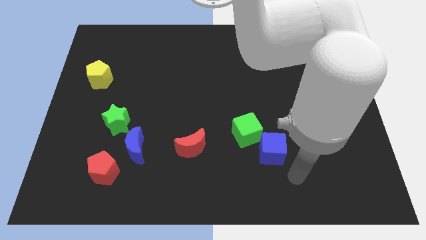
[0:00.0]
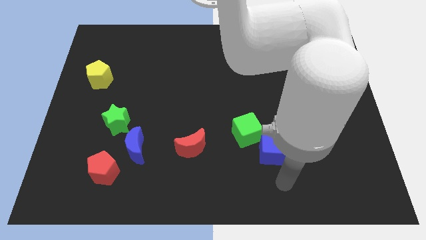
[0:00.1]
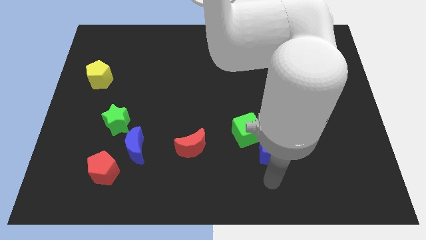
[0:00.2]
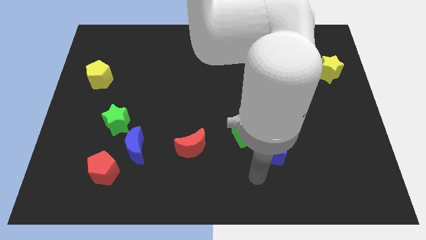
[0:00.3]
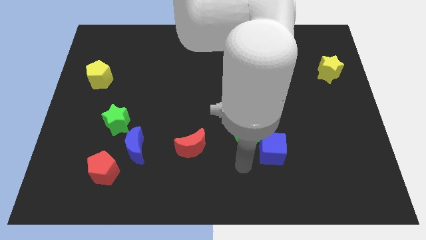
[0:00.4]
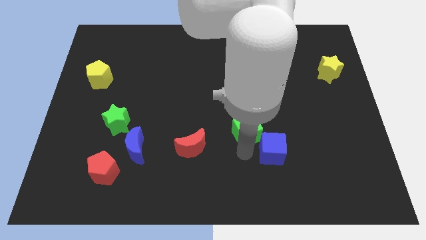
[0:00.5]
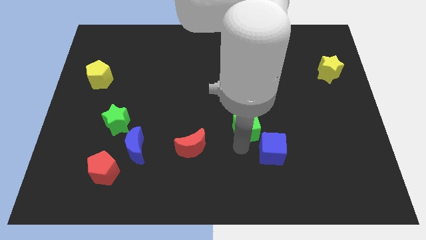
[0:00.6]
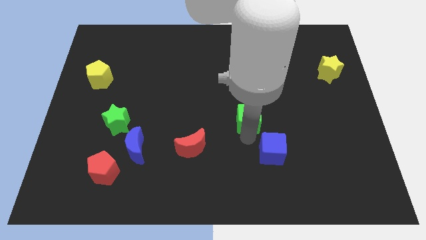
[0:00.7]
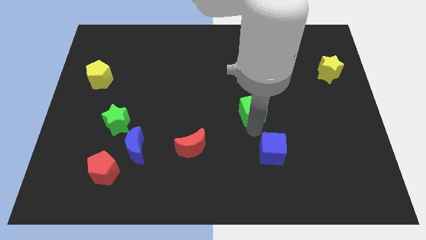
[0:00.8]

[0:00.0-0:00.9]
separate the blue cube from the green cube

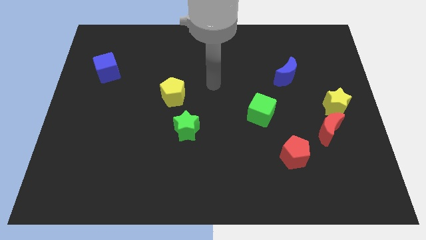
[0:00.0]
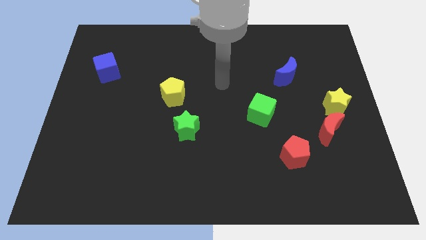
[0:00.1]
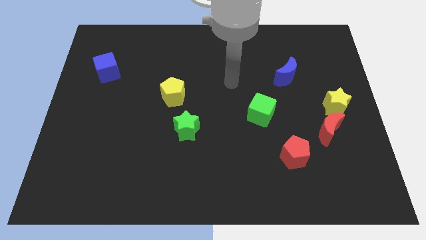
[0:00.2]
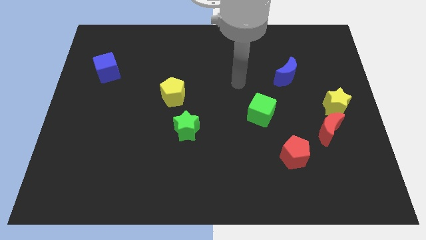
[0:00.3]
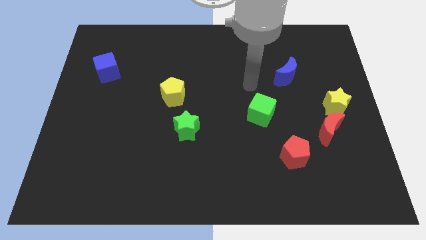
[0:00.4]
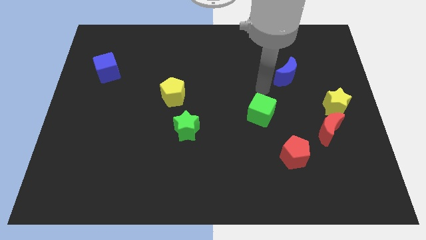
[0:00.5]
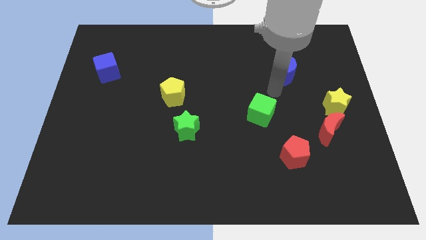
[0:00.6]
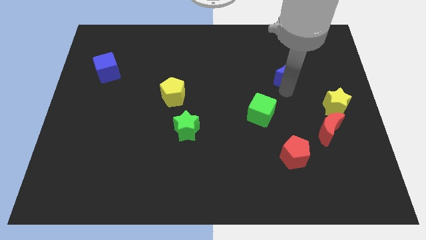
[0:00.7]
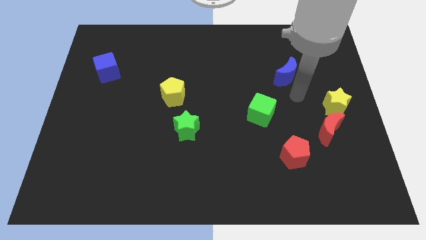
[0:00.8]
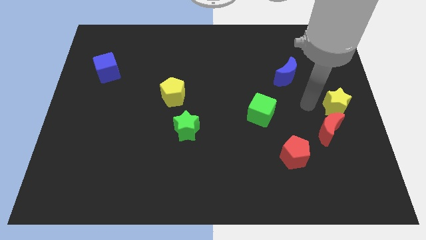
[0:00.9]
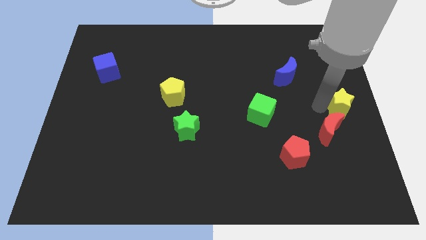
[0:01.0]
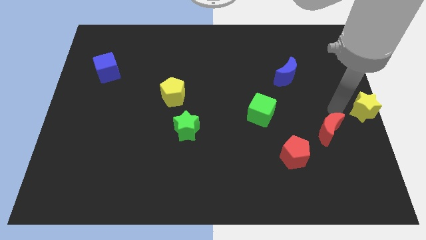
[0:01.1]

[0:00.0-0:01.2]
move the red moon away from the yellow star

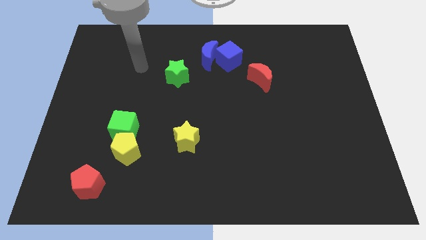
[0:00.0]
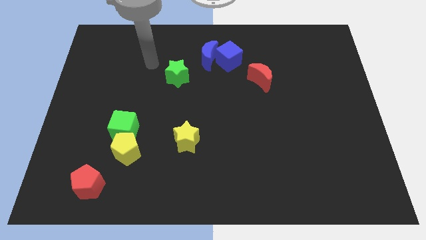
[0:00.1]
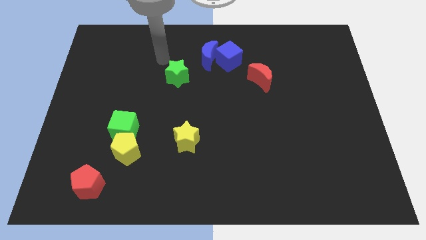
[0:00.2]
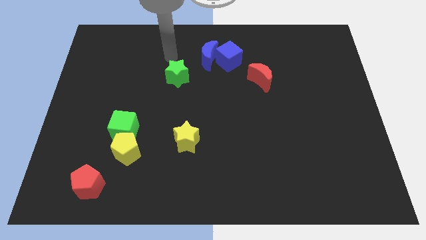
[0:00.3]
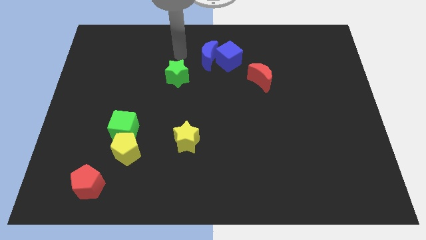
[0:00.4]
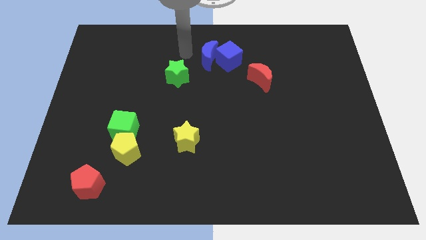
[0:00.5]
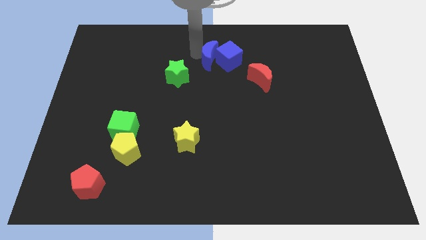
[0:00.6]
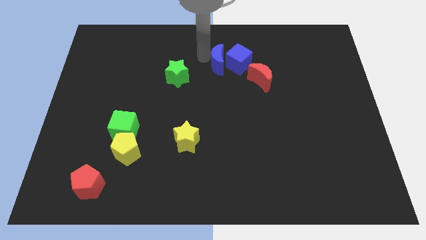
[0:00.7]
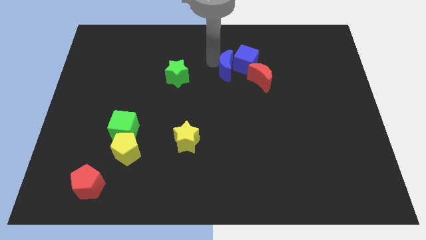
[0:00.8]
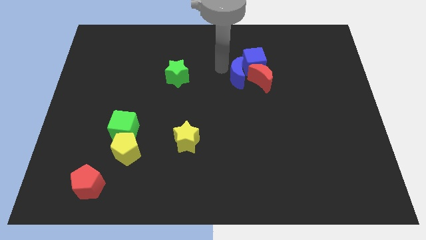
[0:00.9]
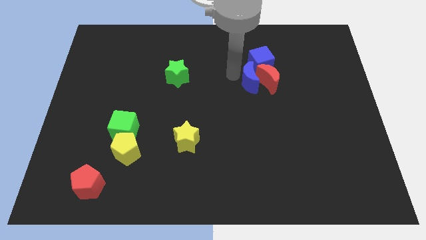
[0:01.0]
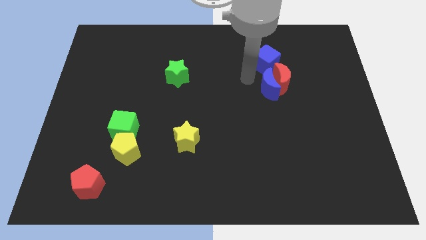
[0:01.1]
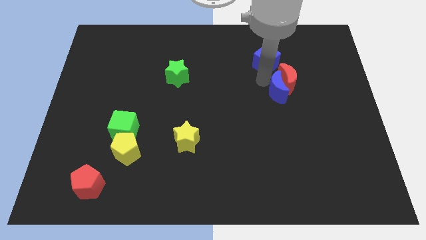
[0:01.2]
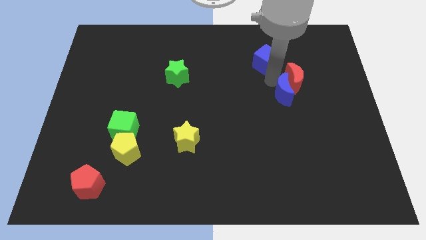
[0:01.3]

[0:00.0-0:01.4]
pull the blue cube apart from the blue moon

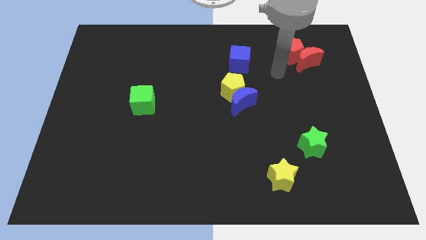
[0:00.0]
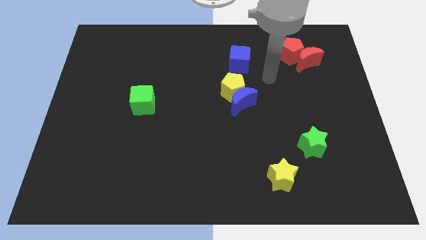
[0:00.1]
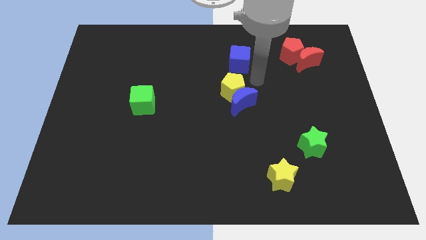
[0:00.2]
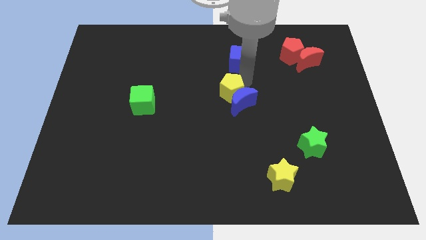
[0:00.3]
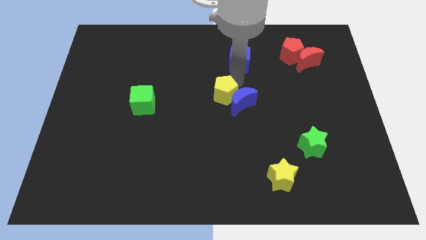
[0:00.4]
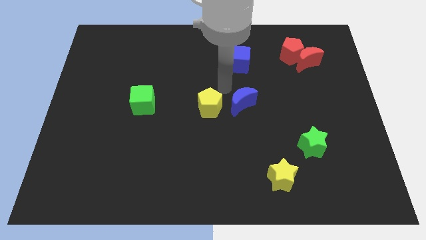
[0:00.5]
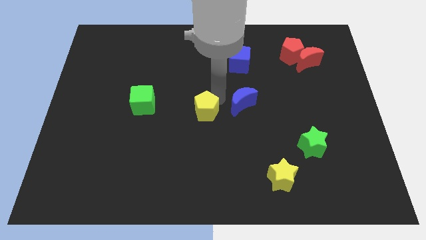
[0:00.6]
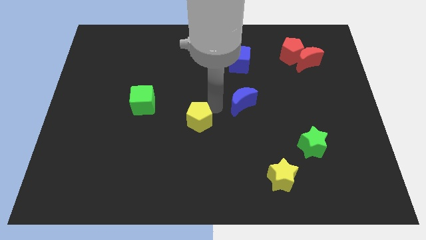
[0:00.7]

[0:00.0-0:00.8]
pull the blue moon apart from the yellow pentagon

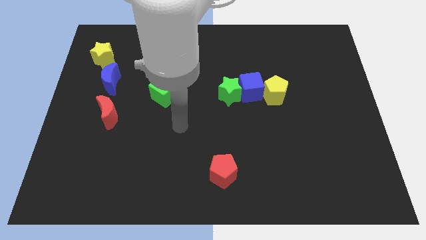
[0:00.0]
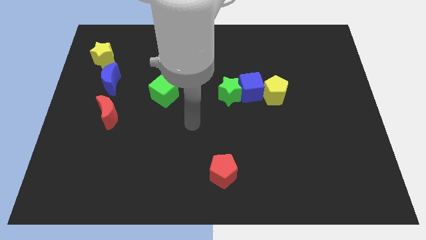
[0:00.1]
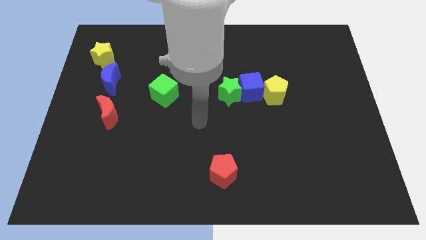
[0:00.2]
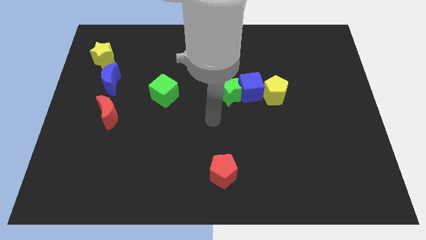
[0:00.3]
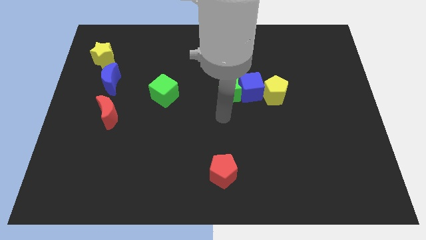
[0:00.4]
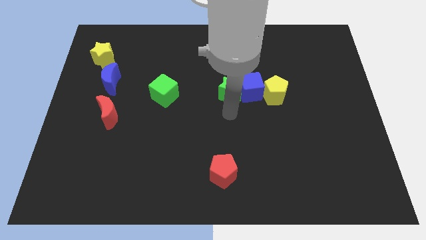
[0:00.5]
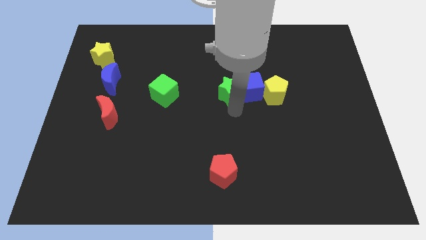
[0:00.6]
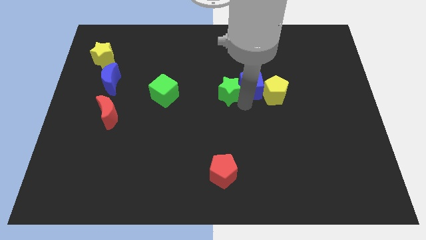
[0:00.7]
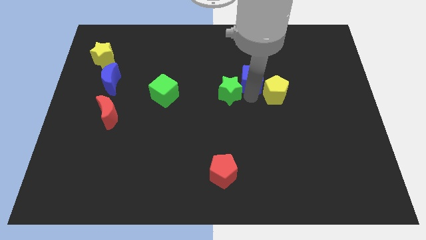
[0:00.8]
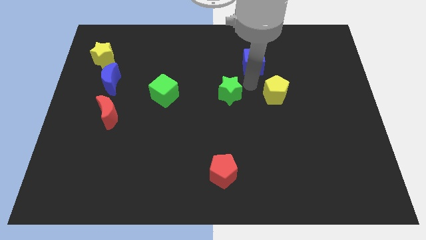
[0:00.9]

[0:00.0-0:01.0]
move the green star away from the blue cube

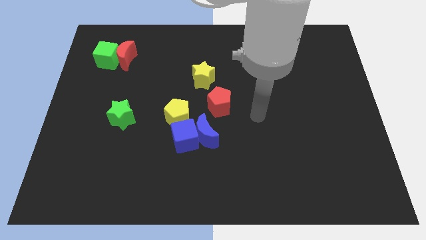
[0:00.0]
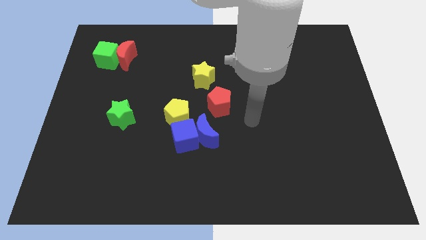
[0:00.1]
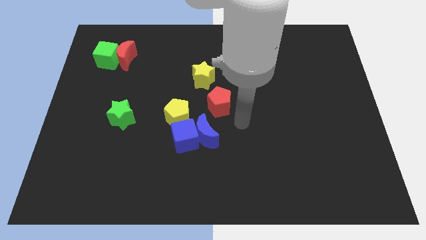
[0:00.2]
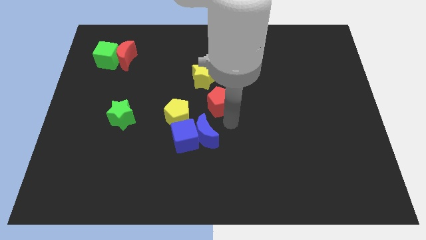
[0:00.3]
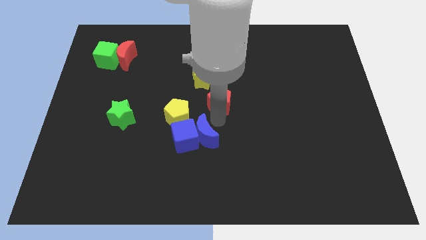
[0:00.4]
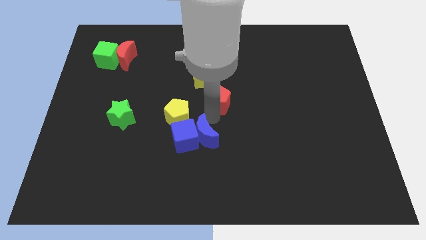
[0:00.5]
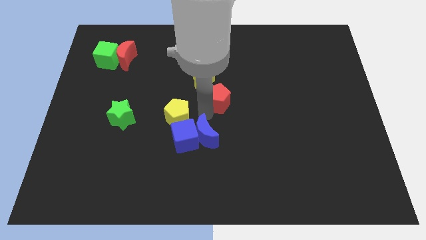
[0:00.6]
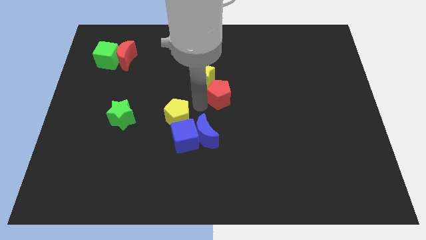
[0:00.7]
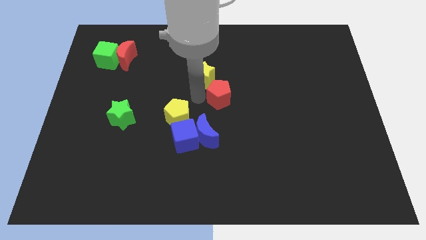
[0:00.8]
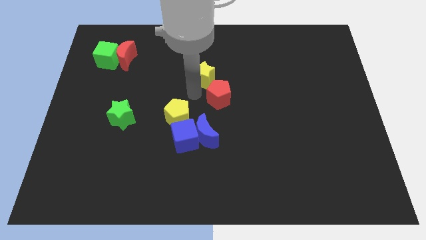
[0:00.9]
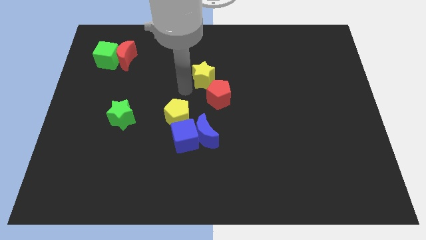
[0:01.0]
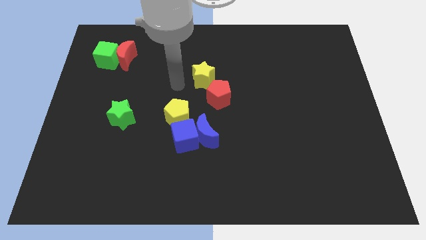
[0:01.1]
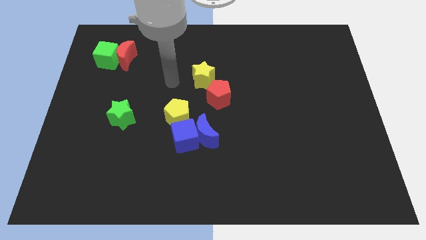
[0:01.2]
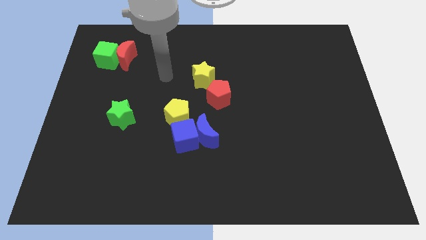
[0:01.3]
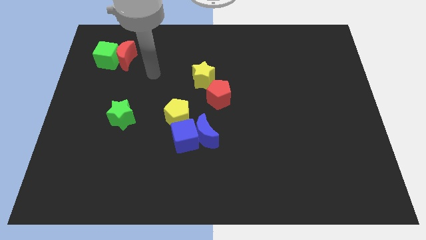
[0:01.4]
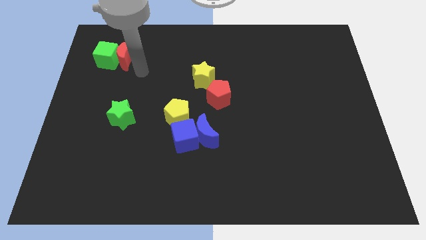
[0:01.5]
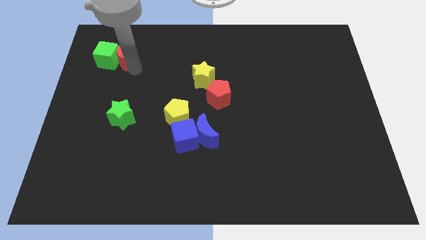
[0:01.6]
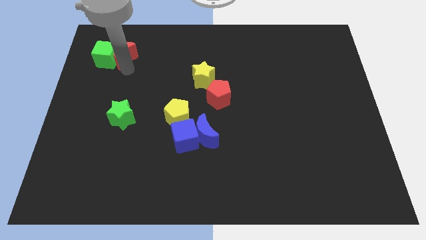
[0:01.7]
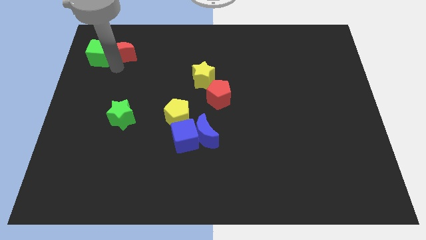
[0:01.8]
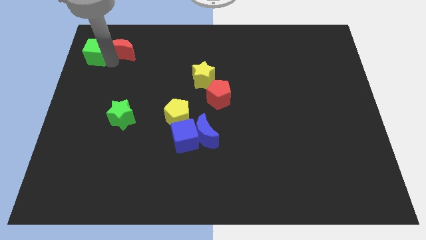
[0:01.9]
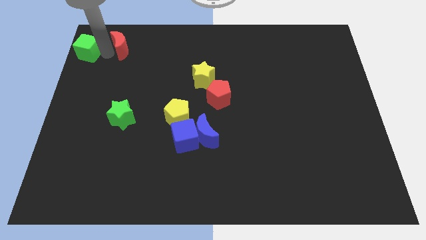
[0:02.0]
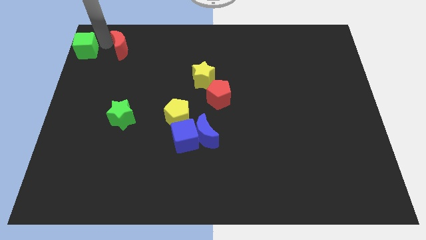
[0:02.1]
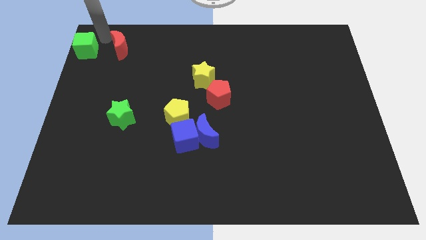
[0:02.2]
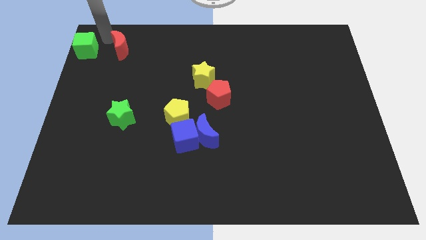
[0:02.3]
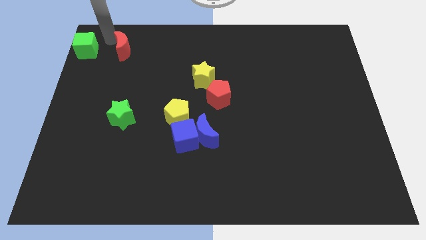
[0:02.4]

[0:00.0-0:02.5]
move the red moon away from the green cube

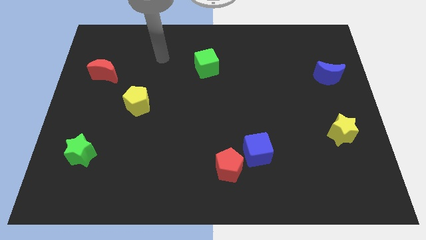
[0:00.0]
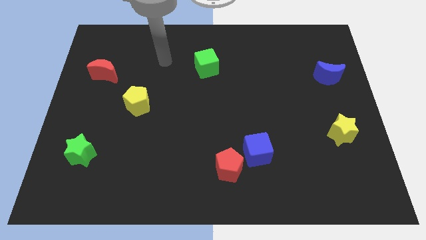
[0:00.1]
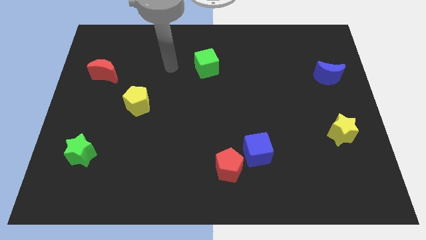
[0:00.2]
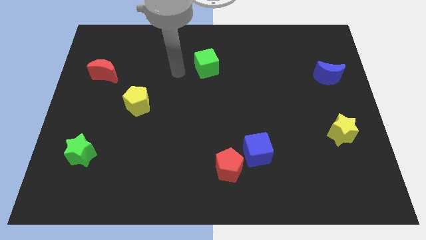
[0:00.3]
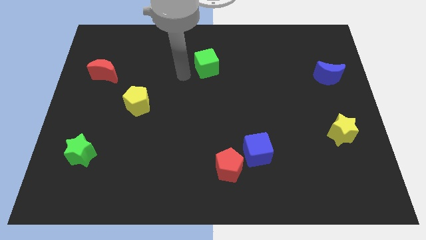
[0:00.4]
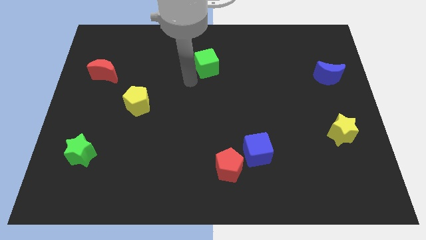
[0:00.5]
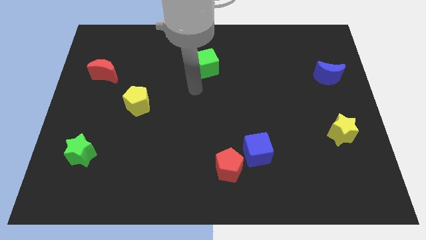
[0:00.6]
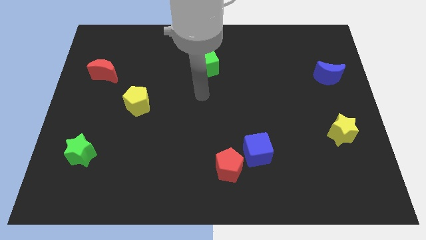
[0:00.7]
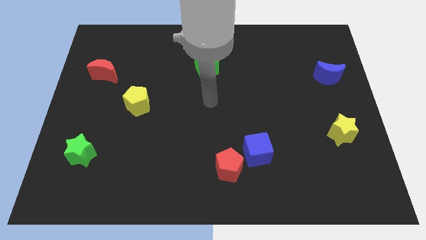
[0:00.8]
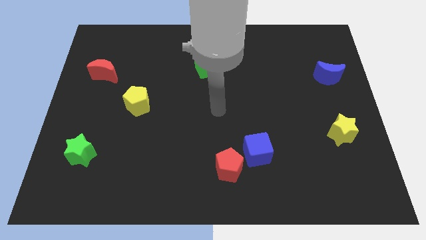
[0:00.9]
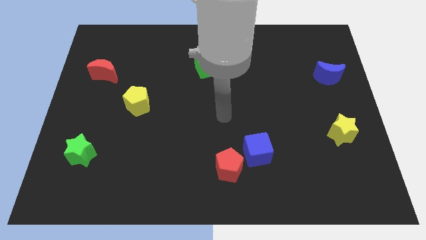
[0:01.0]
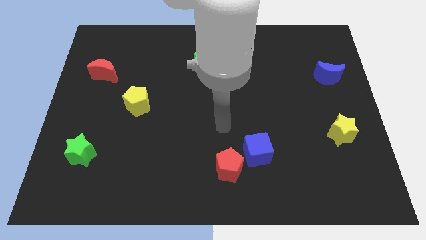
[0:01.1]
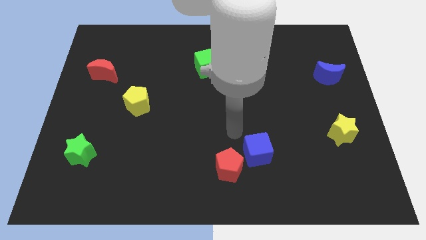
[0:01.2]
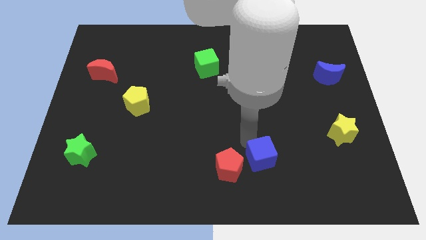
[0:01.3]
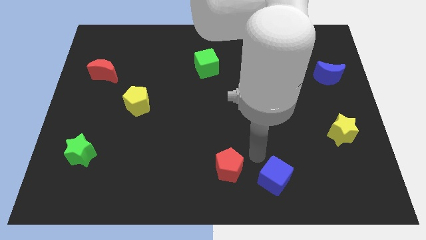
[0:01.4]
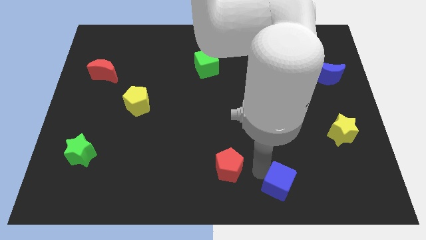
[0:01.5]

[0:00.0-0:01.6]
move the red pentagon away from the blue cube
